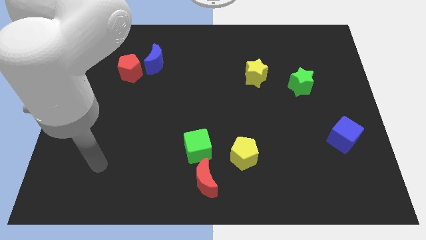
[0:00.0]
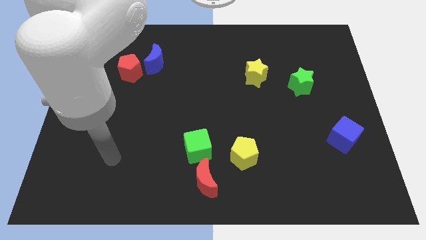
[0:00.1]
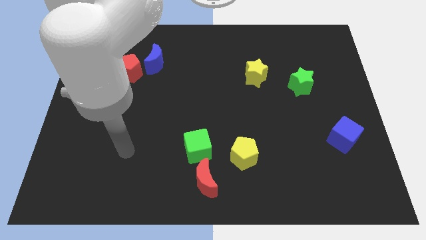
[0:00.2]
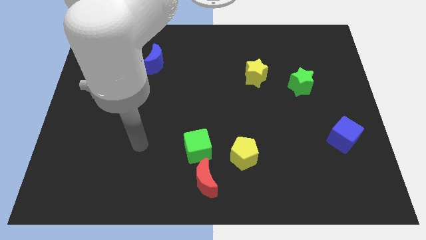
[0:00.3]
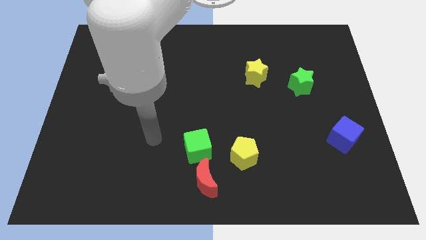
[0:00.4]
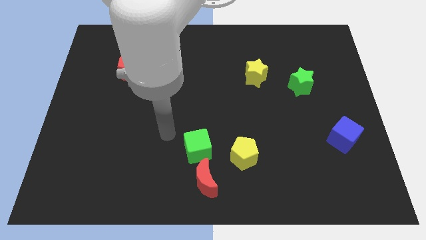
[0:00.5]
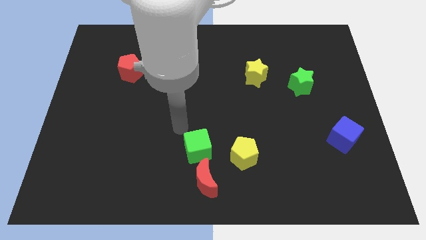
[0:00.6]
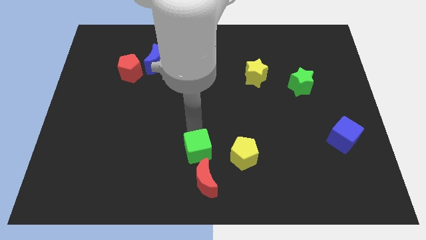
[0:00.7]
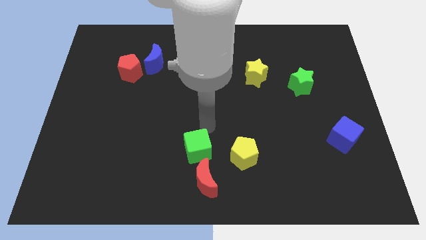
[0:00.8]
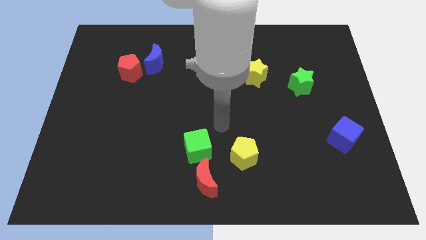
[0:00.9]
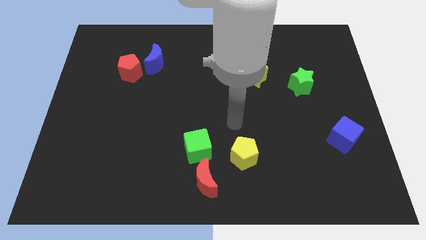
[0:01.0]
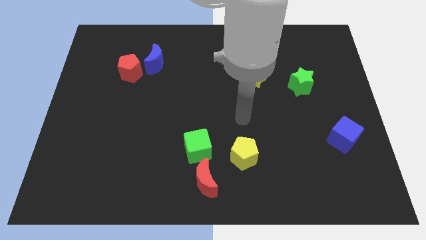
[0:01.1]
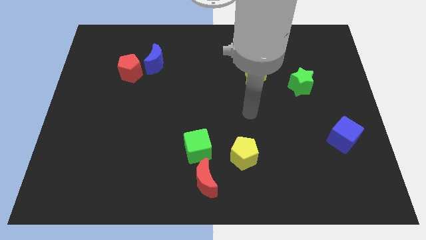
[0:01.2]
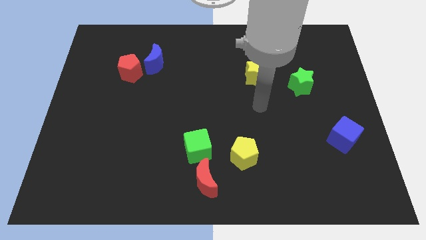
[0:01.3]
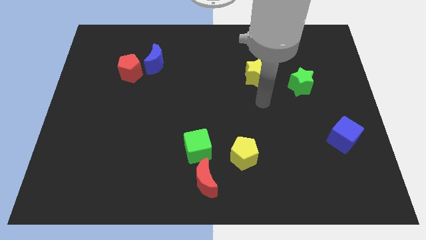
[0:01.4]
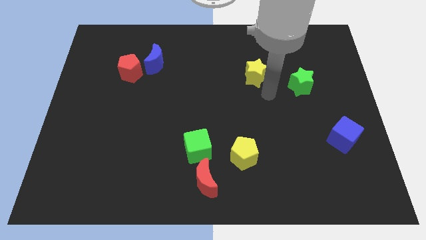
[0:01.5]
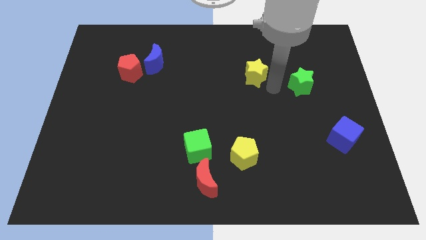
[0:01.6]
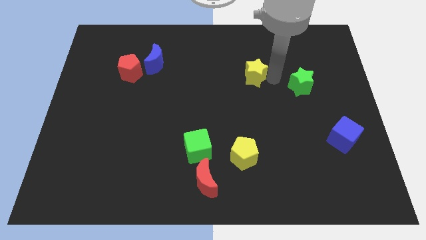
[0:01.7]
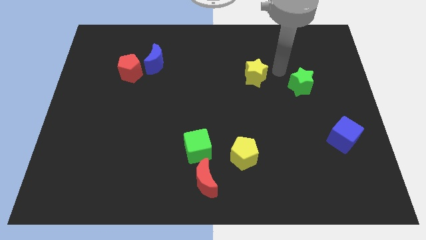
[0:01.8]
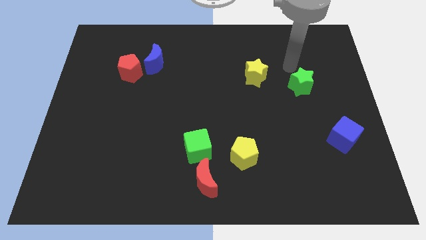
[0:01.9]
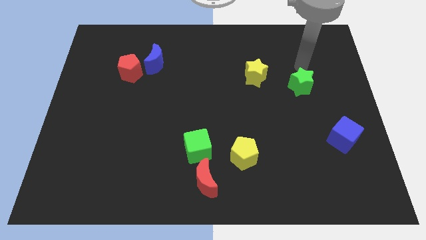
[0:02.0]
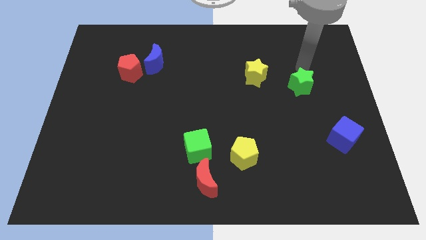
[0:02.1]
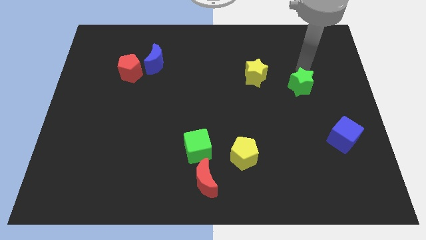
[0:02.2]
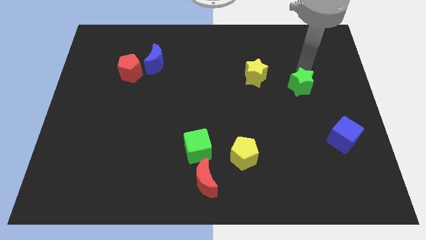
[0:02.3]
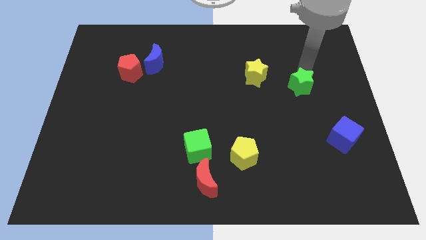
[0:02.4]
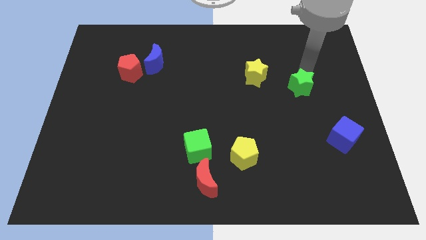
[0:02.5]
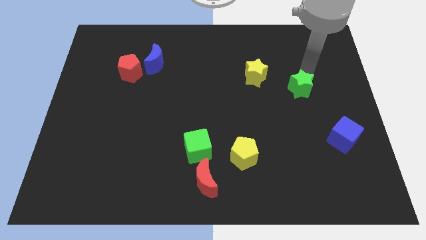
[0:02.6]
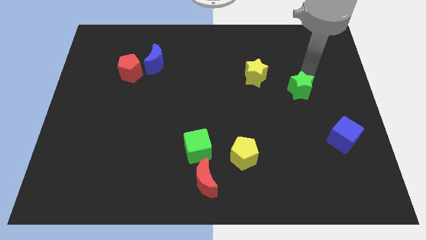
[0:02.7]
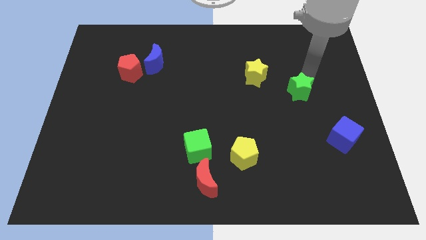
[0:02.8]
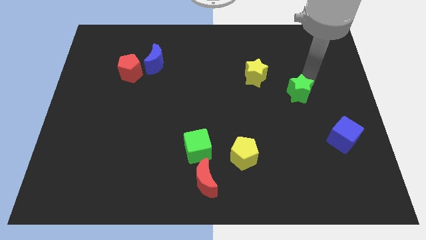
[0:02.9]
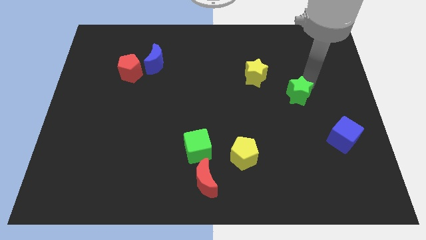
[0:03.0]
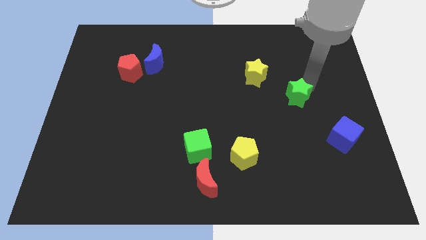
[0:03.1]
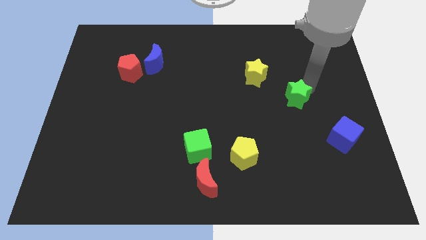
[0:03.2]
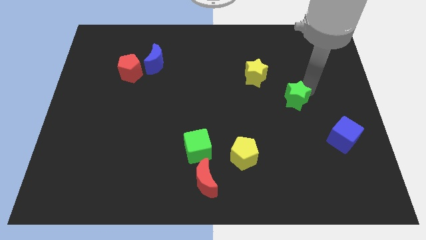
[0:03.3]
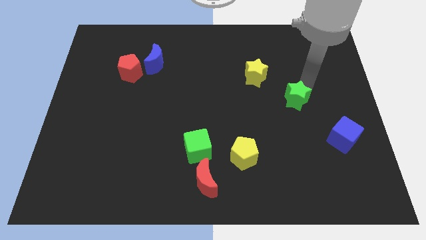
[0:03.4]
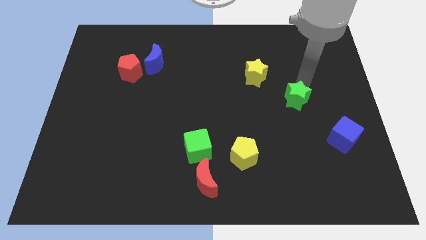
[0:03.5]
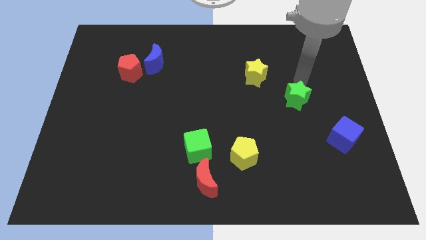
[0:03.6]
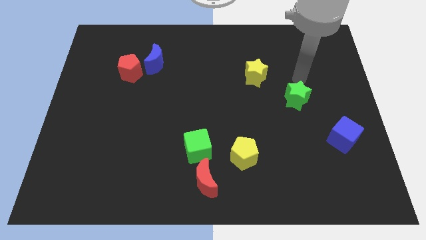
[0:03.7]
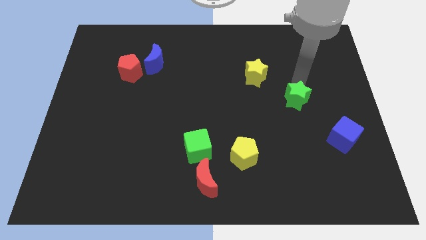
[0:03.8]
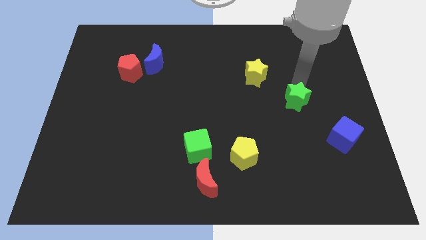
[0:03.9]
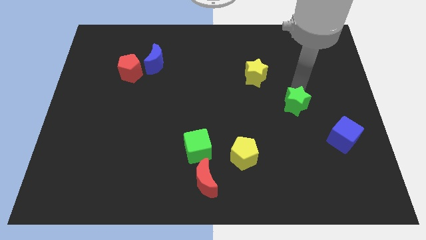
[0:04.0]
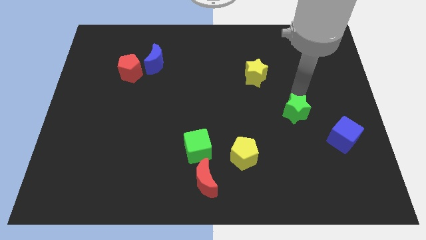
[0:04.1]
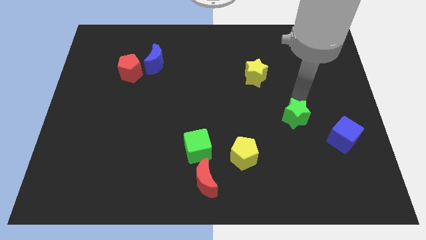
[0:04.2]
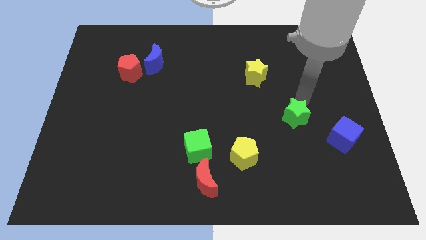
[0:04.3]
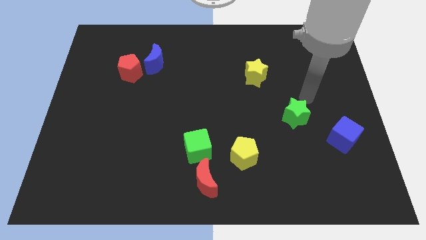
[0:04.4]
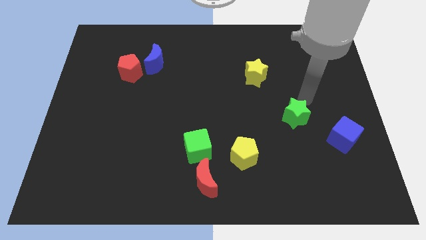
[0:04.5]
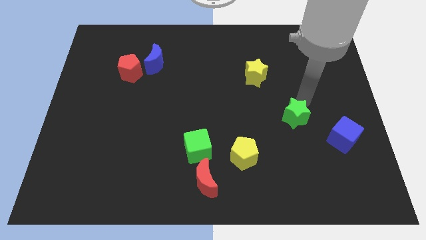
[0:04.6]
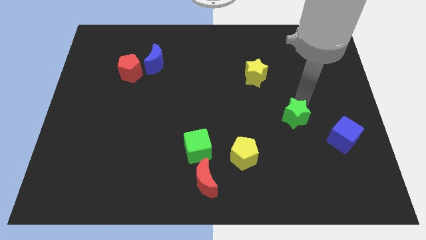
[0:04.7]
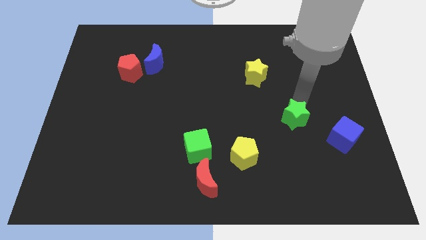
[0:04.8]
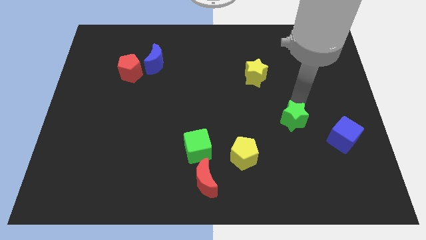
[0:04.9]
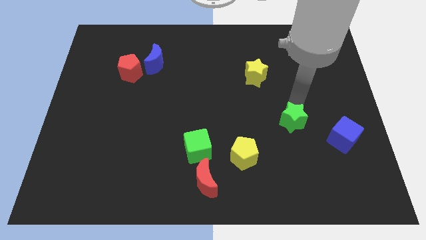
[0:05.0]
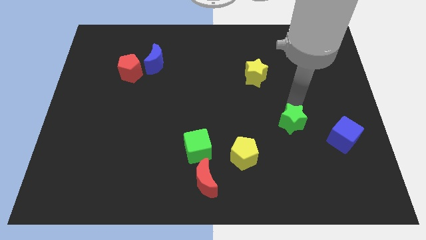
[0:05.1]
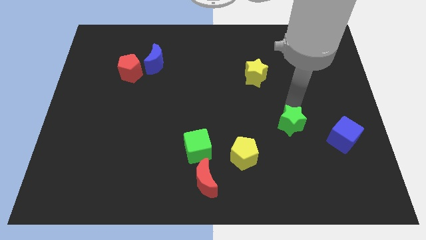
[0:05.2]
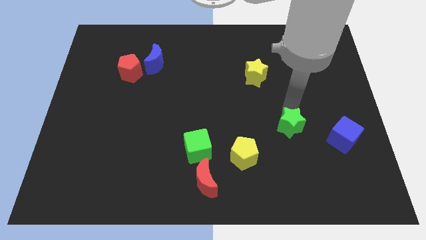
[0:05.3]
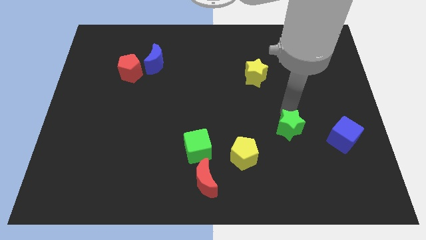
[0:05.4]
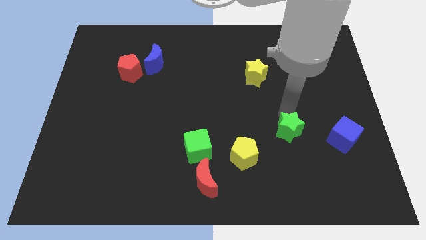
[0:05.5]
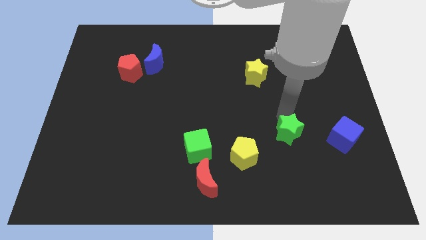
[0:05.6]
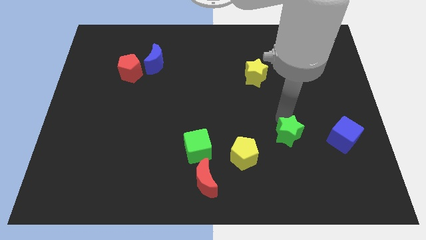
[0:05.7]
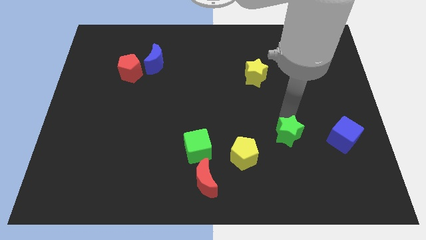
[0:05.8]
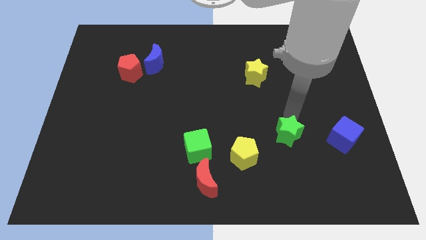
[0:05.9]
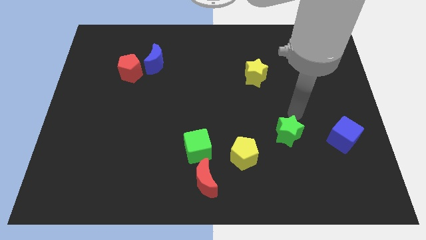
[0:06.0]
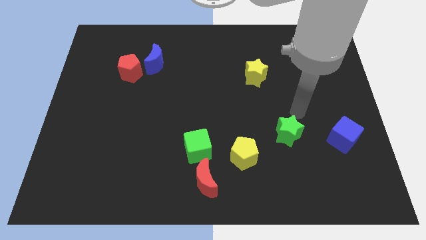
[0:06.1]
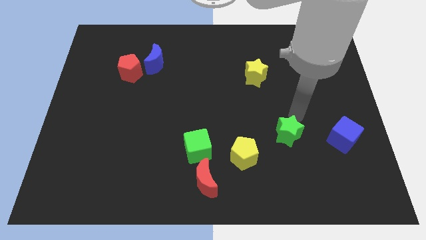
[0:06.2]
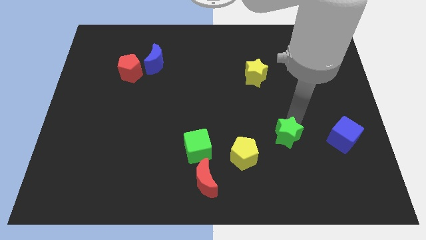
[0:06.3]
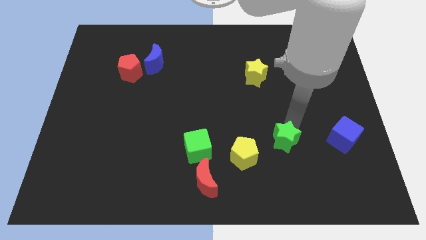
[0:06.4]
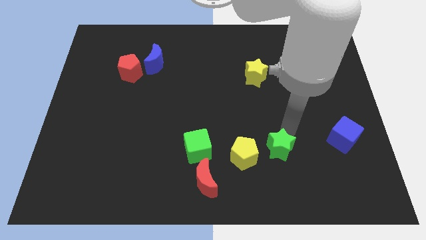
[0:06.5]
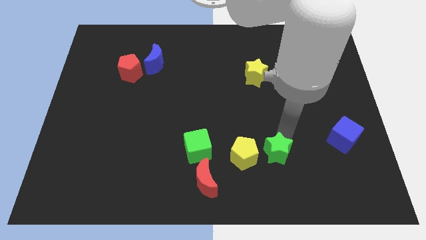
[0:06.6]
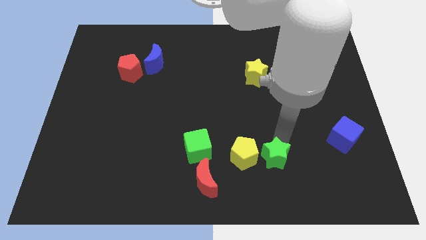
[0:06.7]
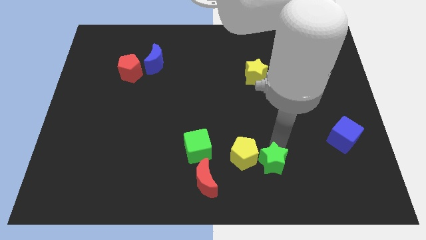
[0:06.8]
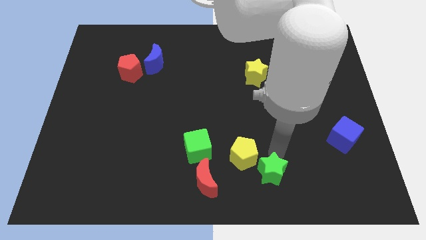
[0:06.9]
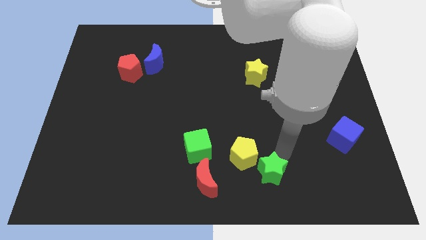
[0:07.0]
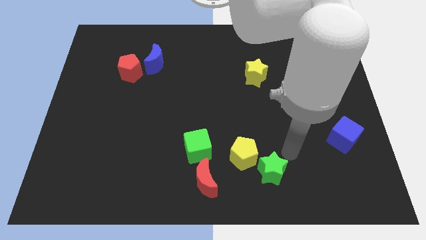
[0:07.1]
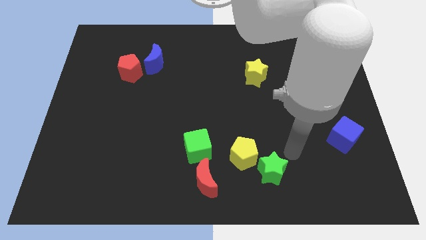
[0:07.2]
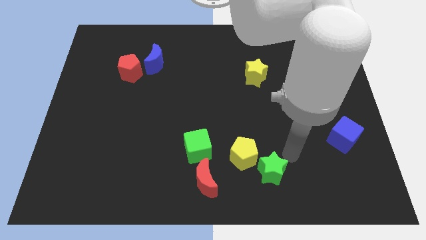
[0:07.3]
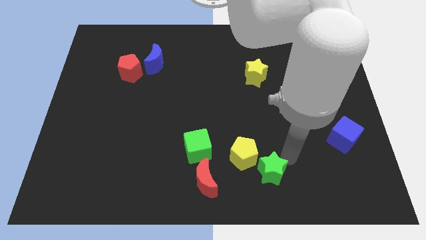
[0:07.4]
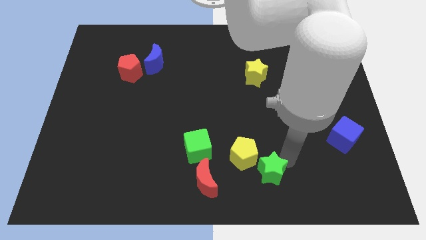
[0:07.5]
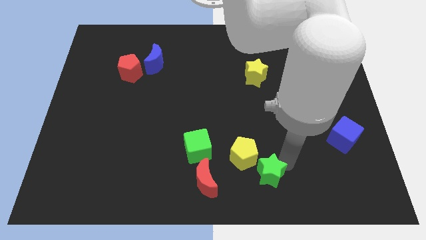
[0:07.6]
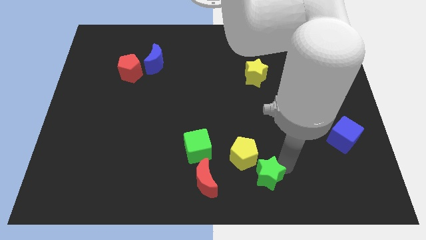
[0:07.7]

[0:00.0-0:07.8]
push the green star to the bottom
